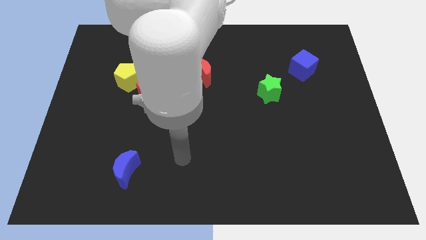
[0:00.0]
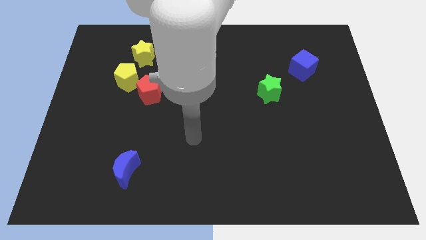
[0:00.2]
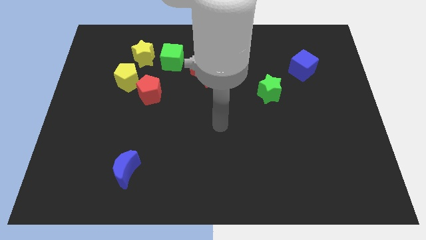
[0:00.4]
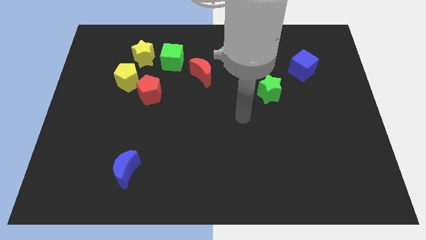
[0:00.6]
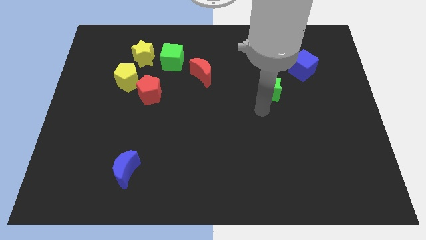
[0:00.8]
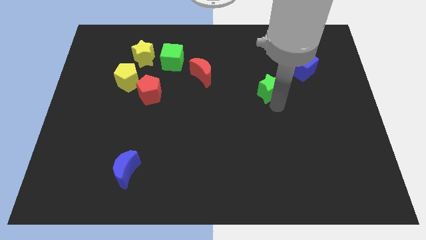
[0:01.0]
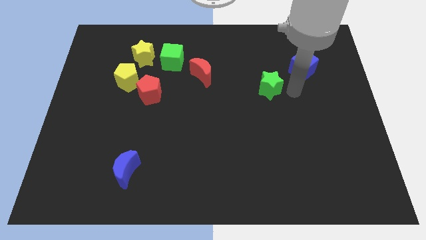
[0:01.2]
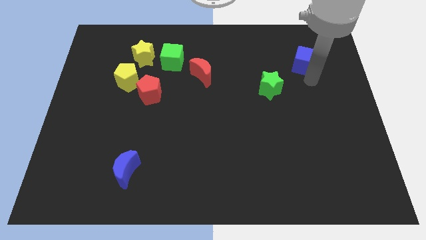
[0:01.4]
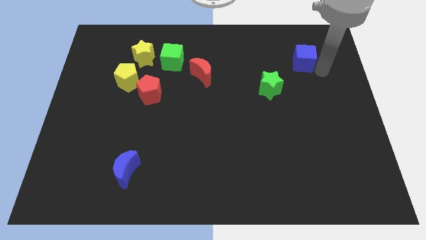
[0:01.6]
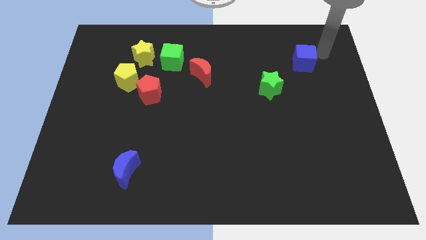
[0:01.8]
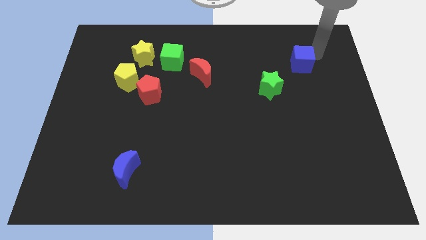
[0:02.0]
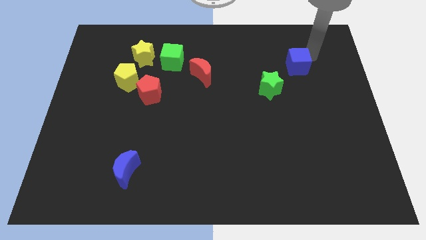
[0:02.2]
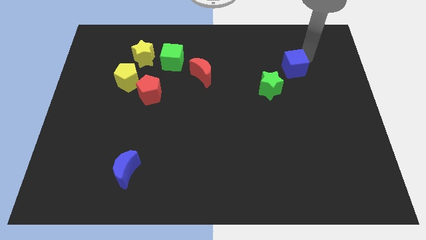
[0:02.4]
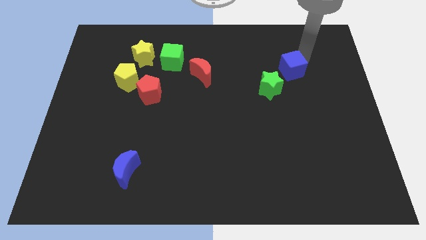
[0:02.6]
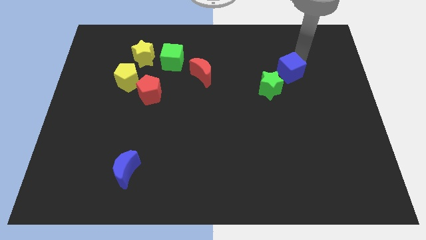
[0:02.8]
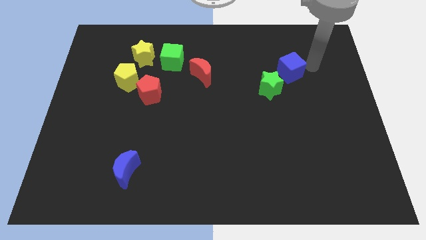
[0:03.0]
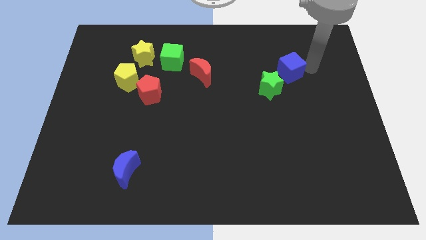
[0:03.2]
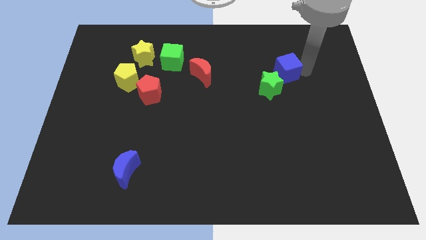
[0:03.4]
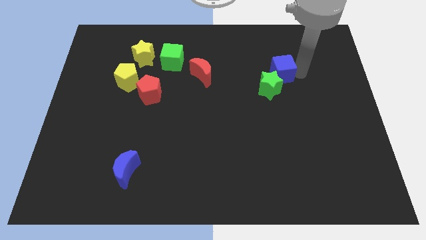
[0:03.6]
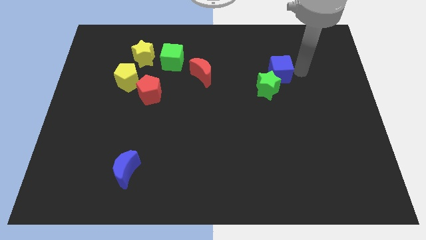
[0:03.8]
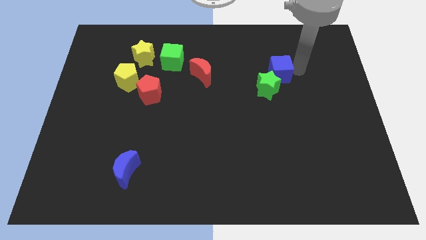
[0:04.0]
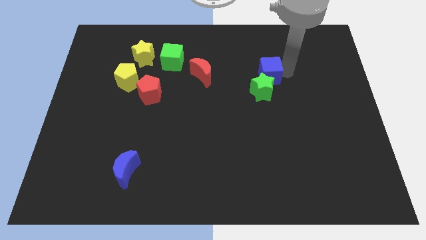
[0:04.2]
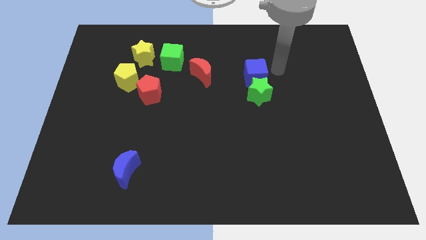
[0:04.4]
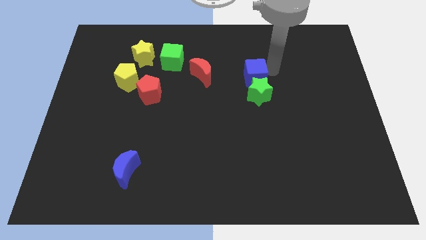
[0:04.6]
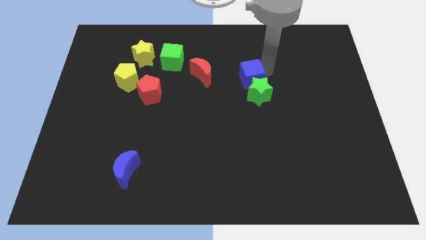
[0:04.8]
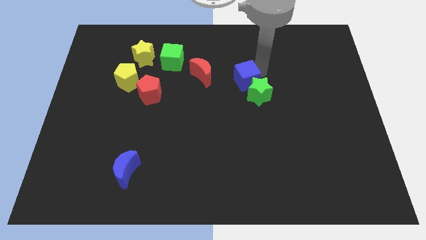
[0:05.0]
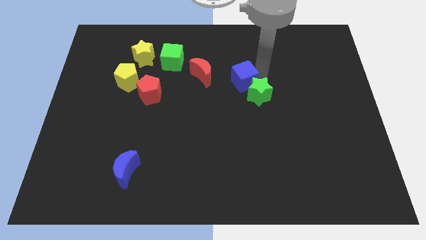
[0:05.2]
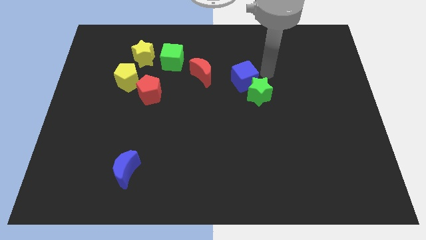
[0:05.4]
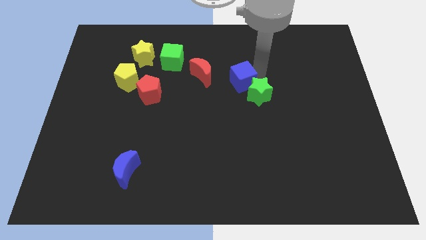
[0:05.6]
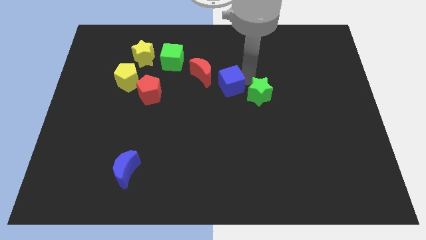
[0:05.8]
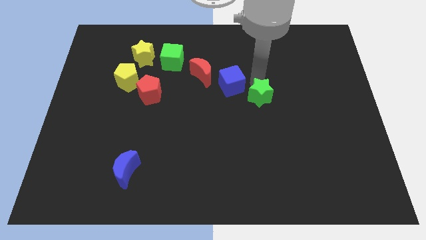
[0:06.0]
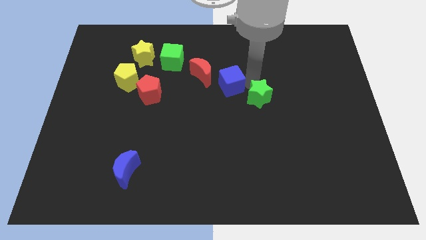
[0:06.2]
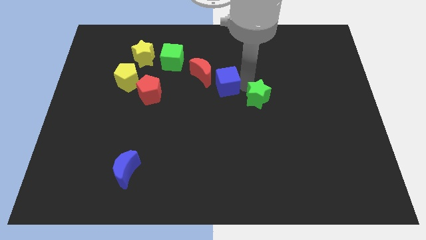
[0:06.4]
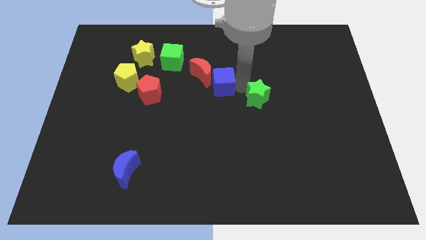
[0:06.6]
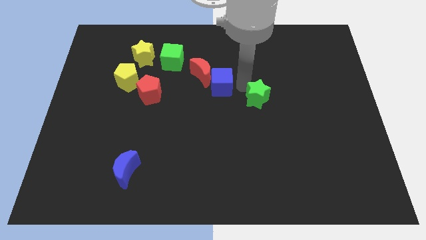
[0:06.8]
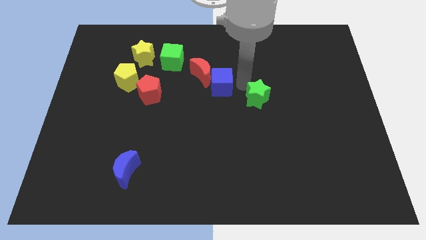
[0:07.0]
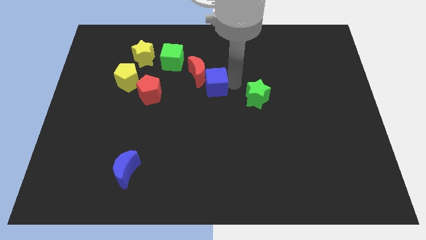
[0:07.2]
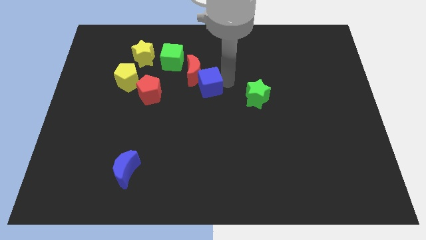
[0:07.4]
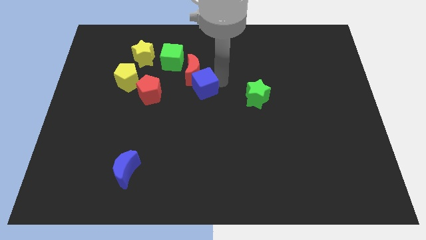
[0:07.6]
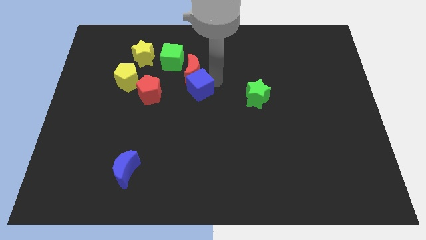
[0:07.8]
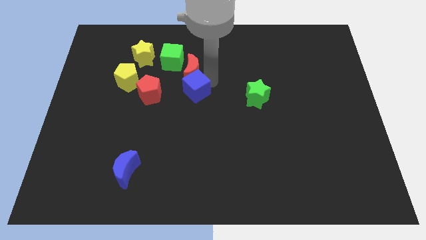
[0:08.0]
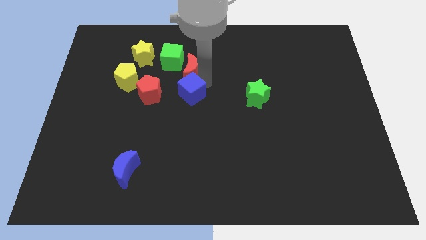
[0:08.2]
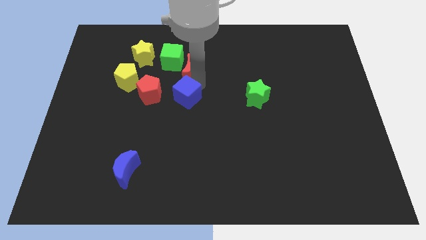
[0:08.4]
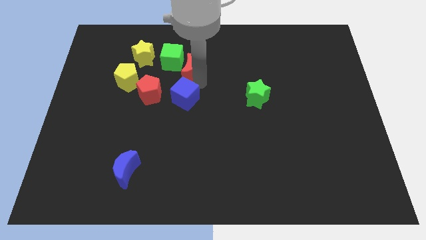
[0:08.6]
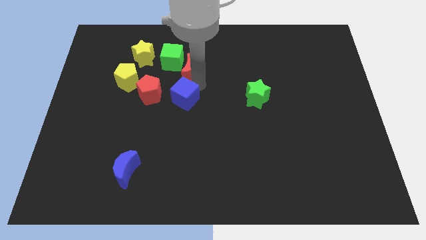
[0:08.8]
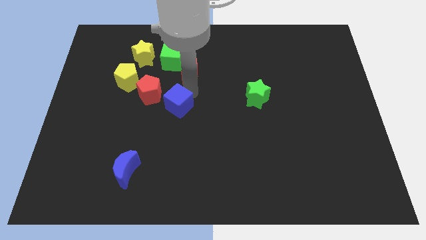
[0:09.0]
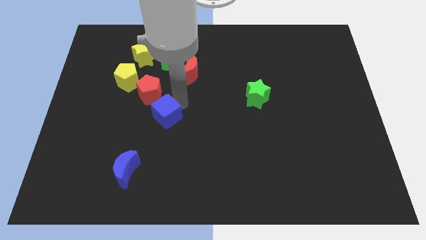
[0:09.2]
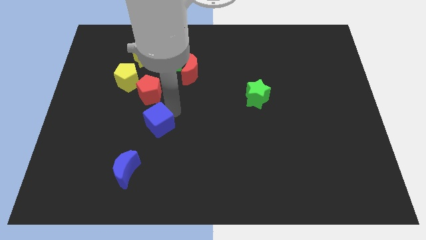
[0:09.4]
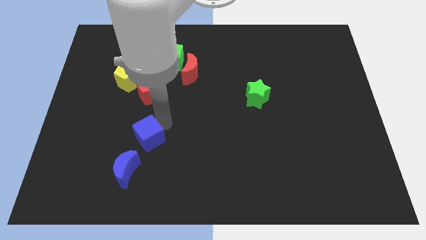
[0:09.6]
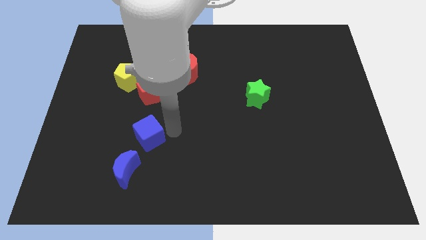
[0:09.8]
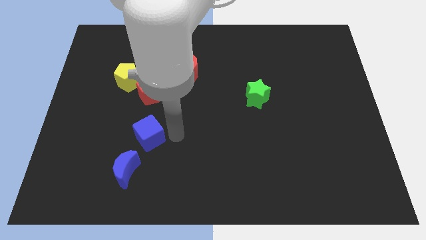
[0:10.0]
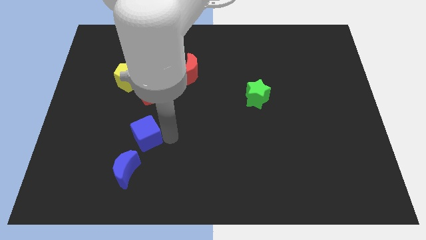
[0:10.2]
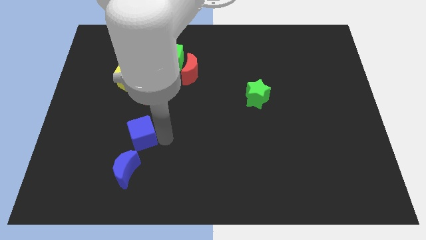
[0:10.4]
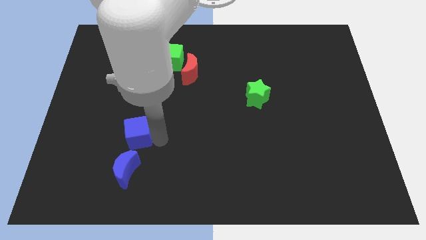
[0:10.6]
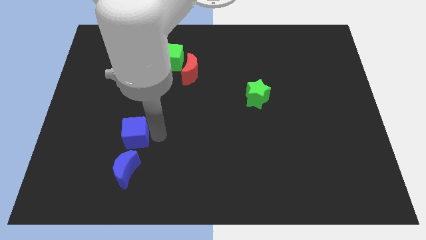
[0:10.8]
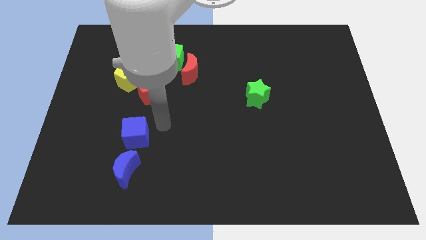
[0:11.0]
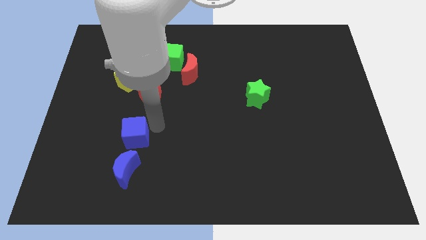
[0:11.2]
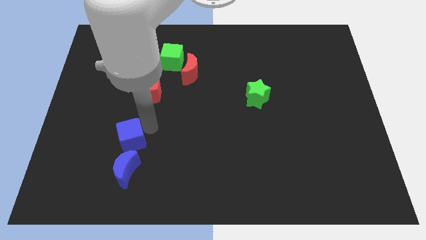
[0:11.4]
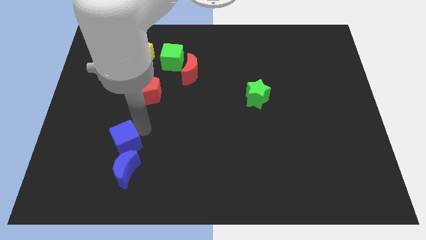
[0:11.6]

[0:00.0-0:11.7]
push the blue cube to the top left of the blue moon

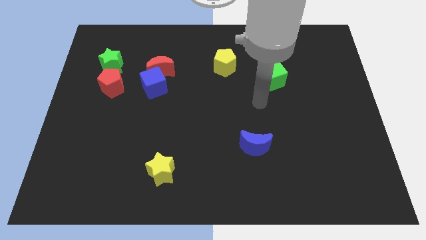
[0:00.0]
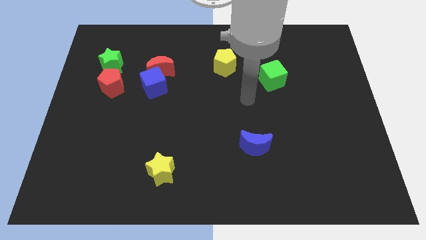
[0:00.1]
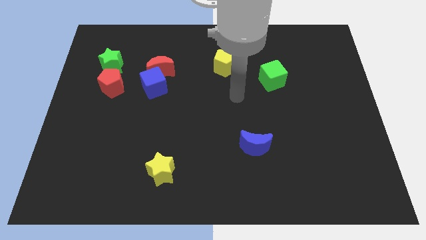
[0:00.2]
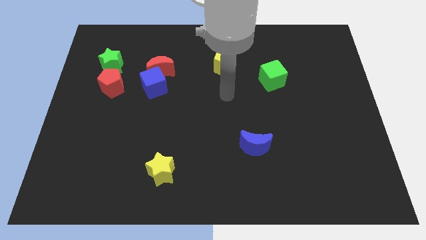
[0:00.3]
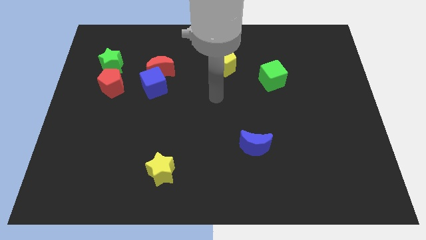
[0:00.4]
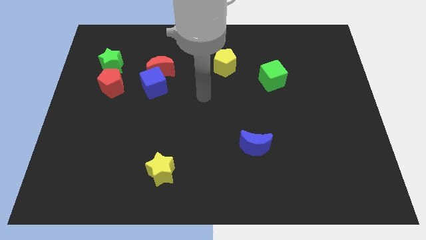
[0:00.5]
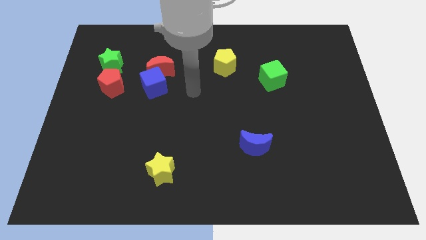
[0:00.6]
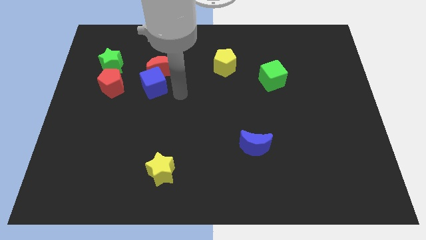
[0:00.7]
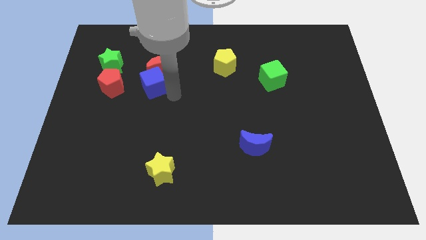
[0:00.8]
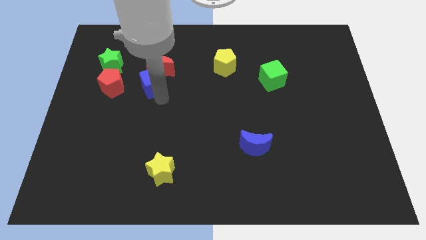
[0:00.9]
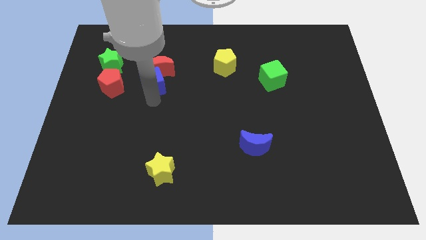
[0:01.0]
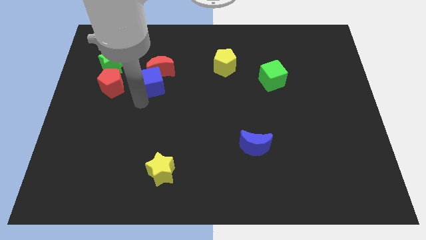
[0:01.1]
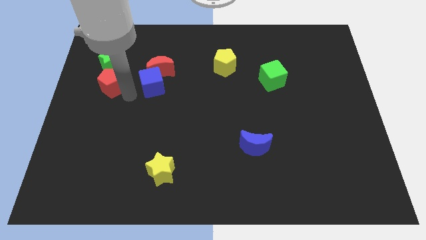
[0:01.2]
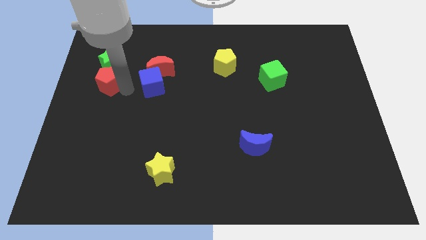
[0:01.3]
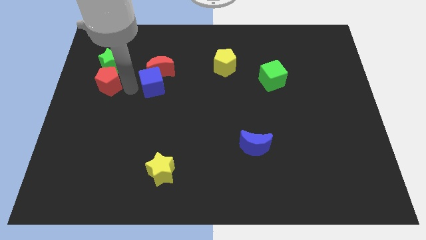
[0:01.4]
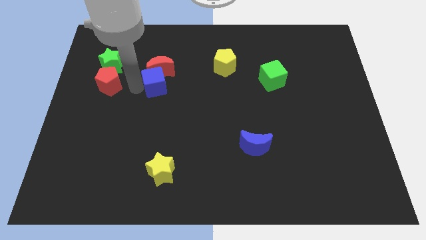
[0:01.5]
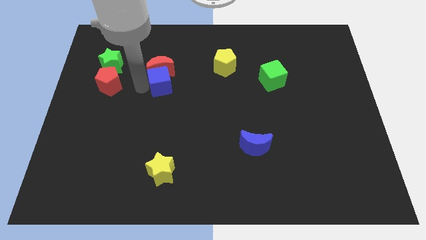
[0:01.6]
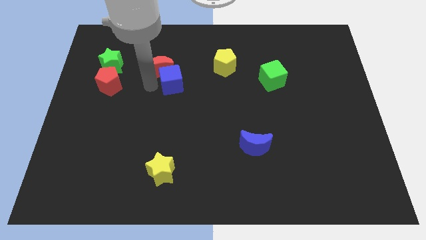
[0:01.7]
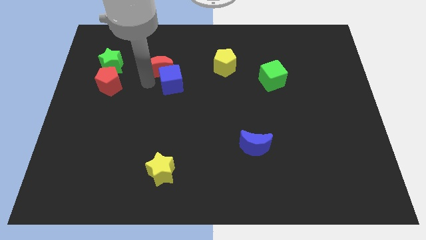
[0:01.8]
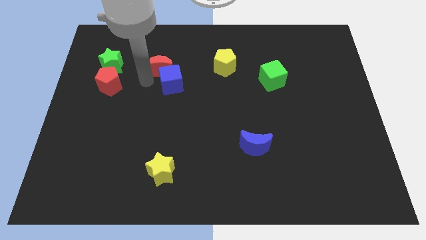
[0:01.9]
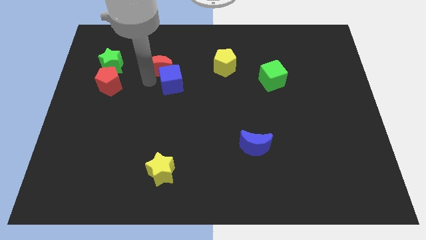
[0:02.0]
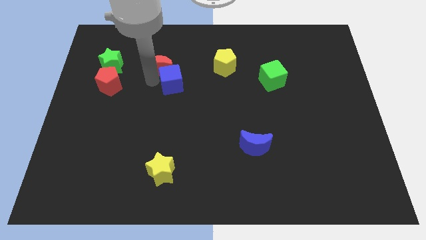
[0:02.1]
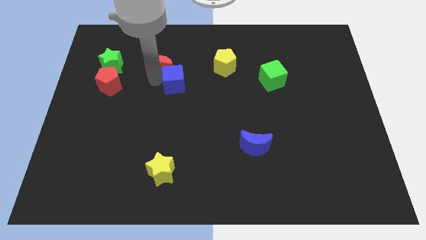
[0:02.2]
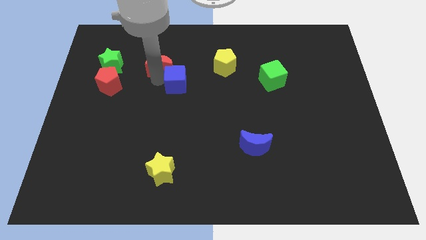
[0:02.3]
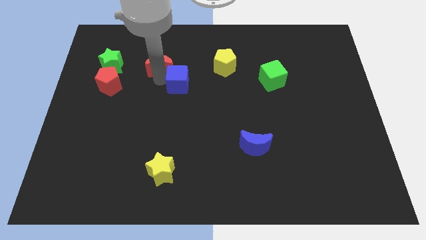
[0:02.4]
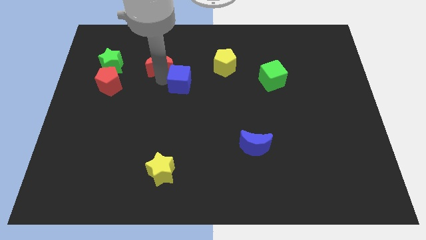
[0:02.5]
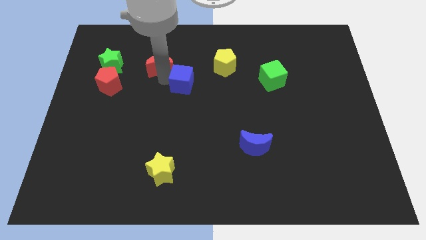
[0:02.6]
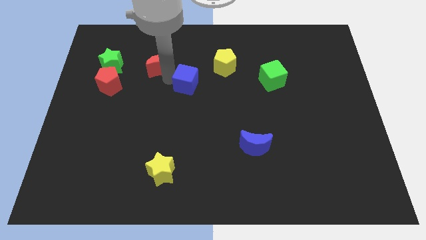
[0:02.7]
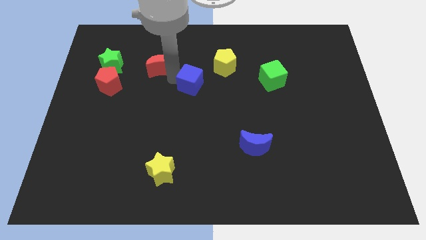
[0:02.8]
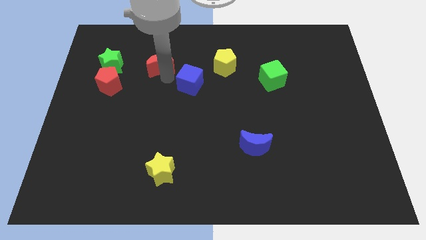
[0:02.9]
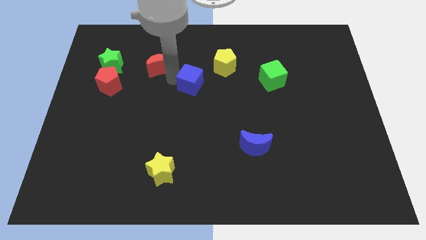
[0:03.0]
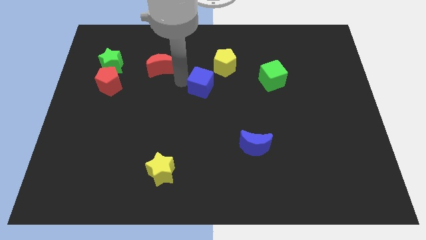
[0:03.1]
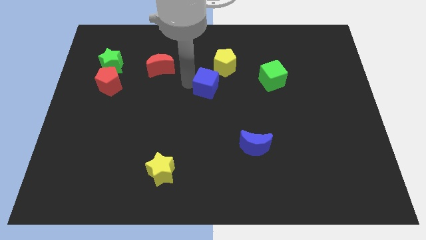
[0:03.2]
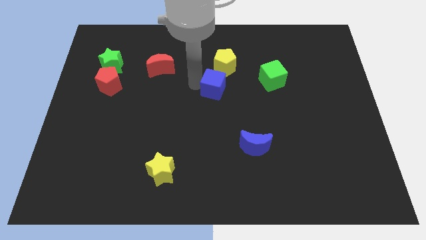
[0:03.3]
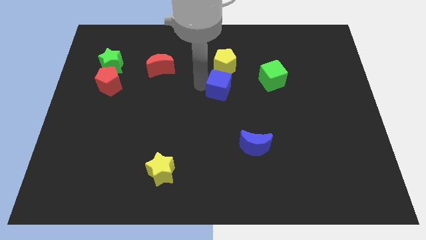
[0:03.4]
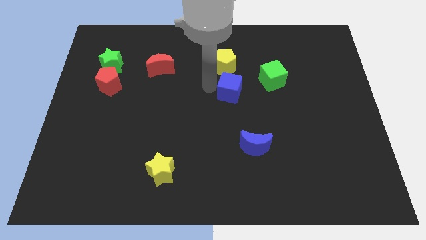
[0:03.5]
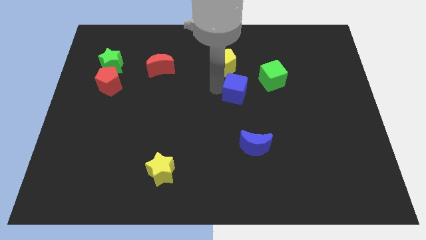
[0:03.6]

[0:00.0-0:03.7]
slide the blue cube to the bottom left side of the green cube
